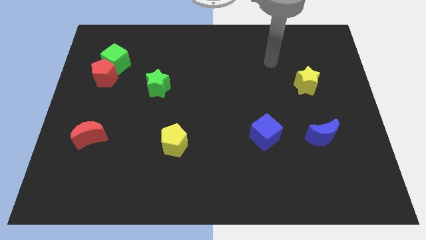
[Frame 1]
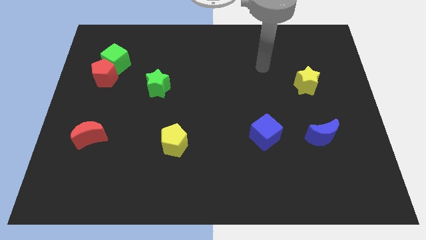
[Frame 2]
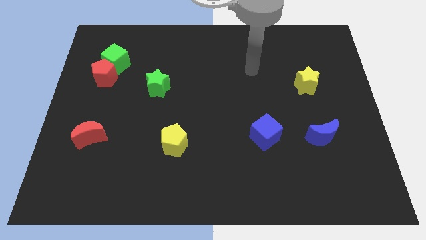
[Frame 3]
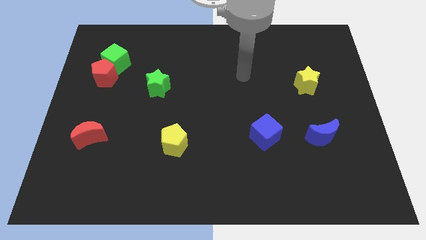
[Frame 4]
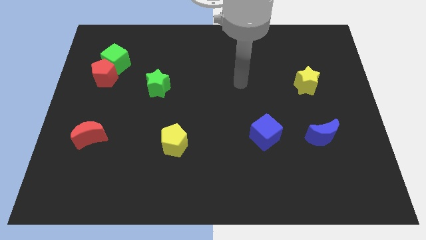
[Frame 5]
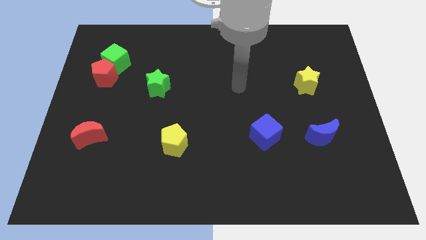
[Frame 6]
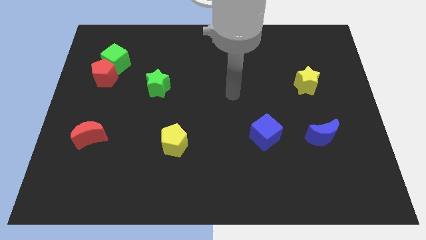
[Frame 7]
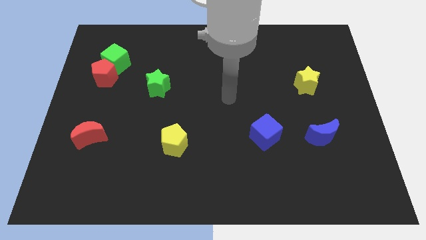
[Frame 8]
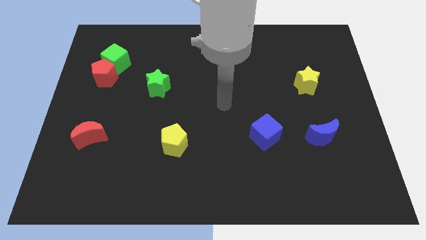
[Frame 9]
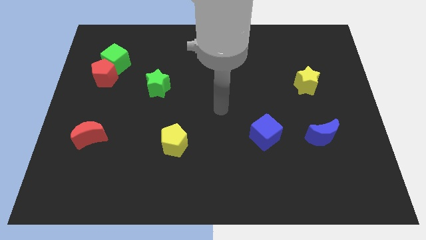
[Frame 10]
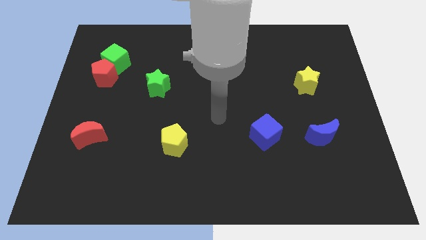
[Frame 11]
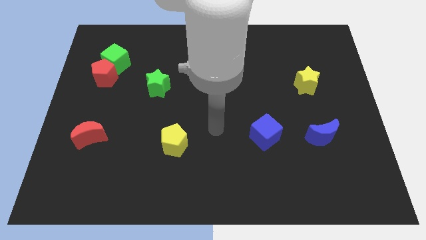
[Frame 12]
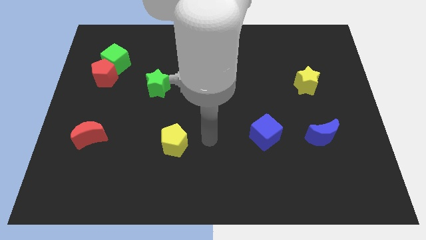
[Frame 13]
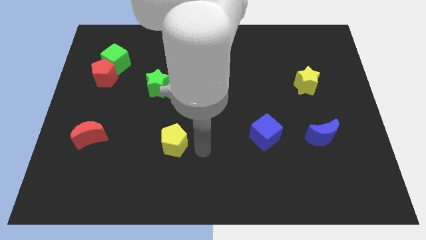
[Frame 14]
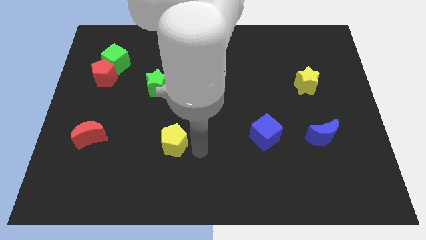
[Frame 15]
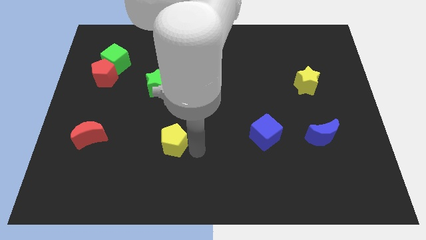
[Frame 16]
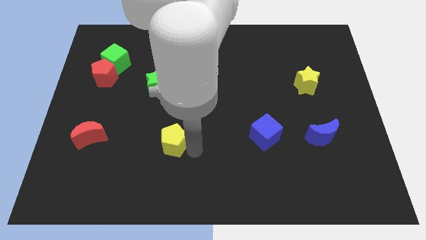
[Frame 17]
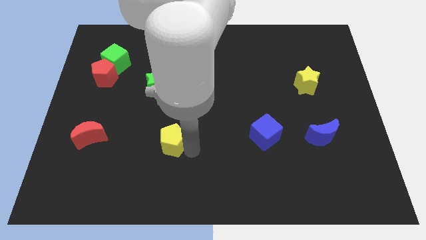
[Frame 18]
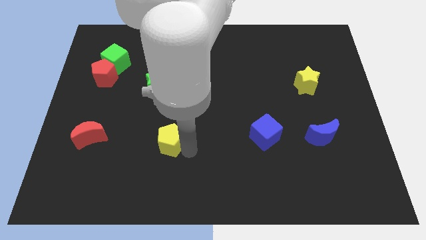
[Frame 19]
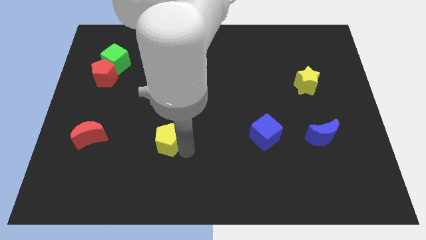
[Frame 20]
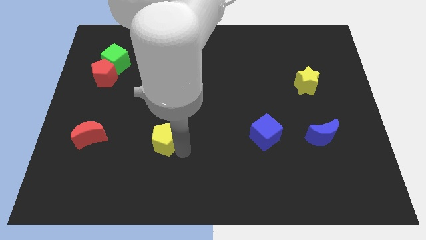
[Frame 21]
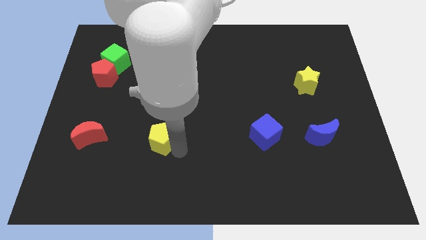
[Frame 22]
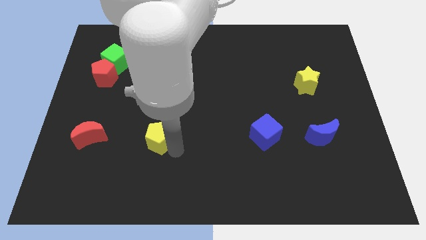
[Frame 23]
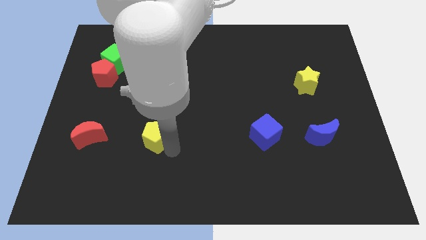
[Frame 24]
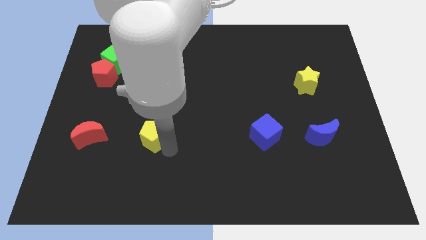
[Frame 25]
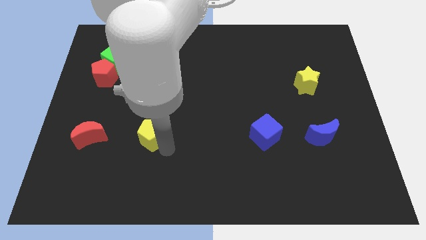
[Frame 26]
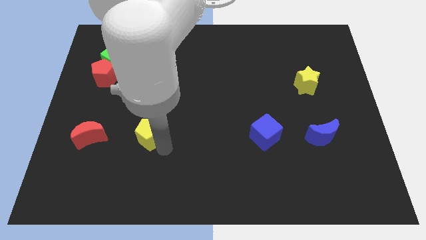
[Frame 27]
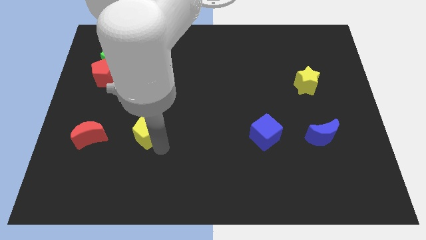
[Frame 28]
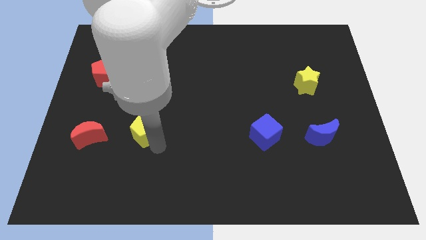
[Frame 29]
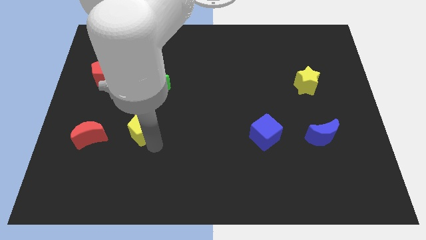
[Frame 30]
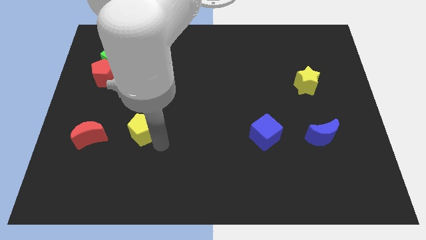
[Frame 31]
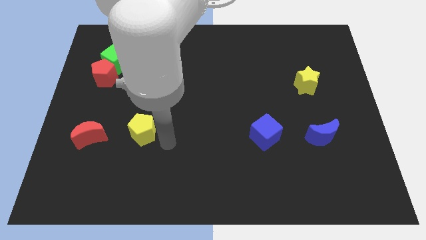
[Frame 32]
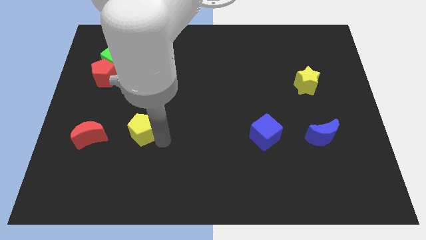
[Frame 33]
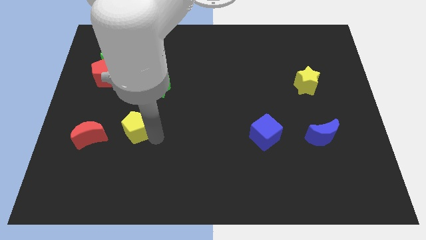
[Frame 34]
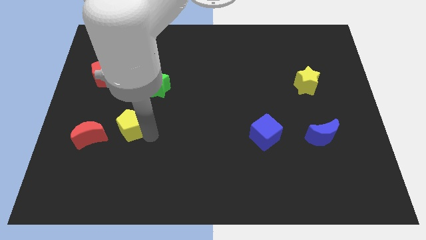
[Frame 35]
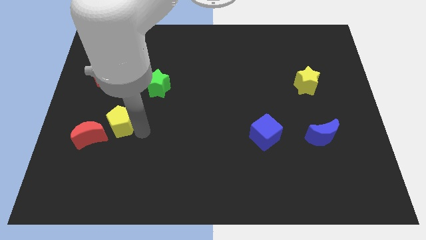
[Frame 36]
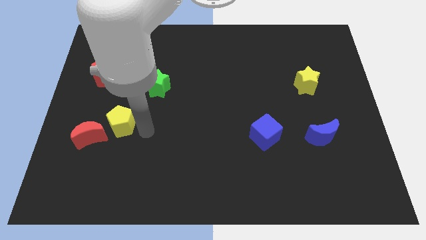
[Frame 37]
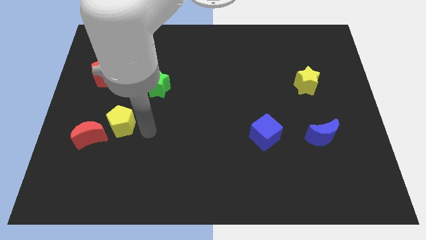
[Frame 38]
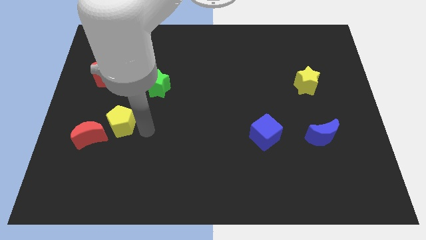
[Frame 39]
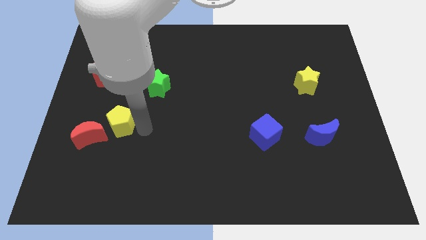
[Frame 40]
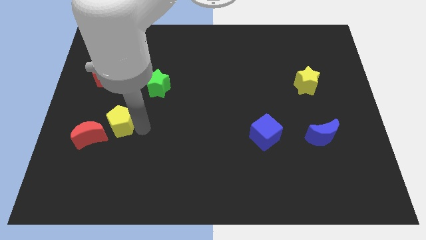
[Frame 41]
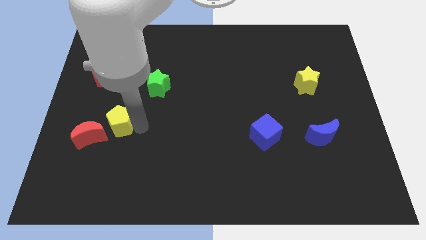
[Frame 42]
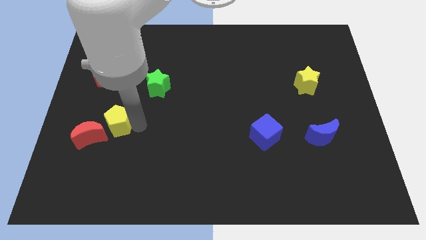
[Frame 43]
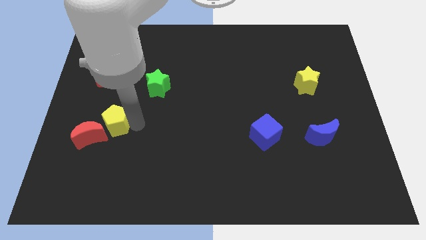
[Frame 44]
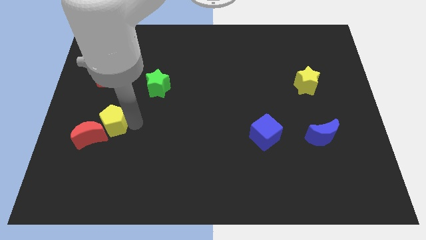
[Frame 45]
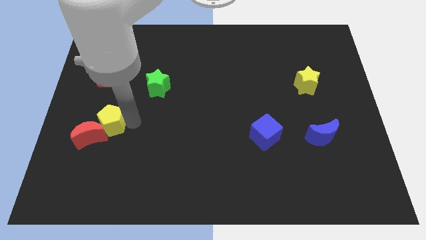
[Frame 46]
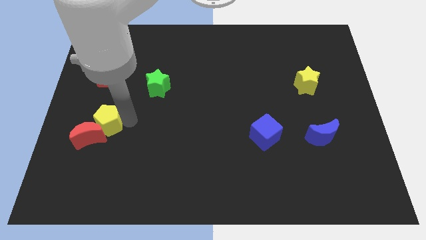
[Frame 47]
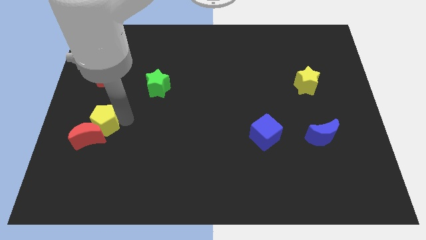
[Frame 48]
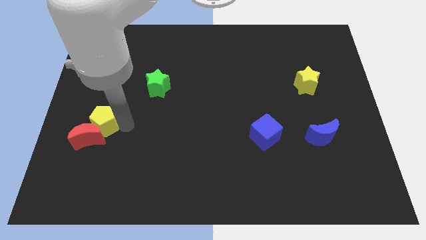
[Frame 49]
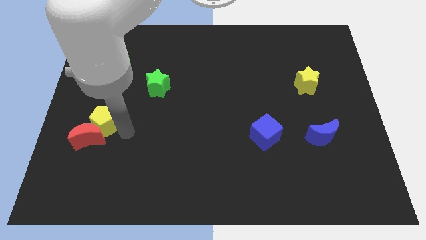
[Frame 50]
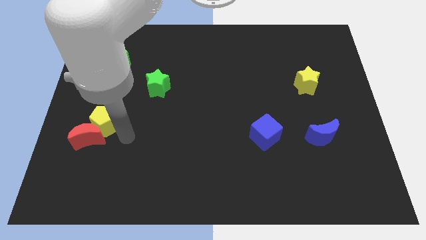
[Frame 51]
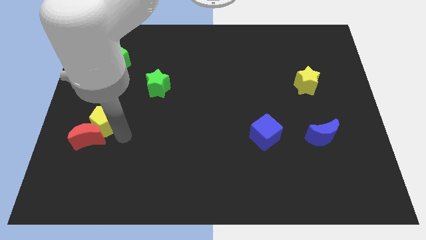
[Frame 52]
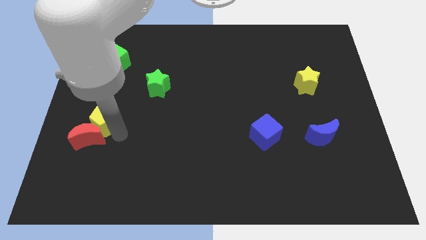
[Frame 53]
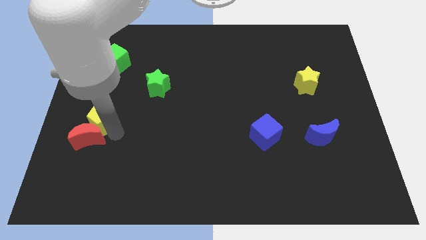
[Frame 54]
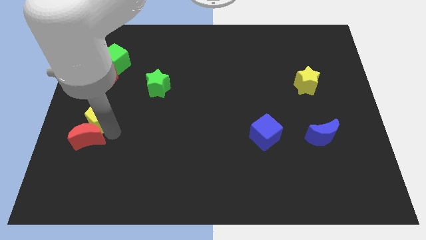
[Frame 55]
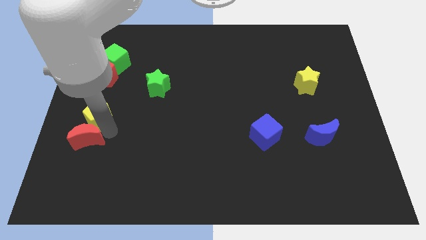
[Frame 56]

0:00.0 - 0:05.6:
put the yellow pentagon to the left side

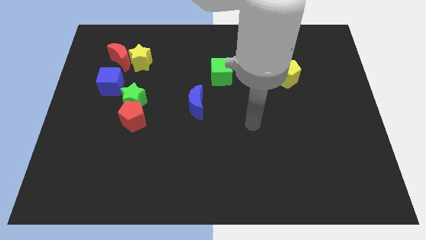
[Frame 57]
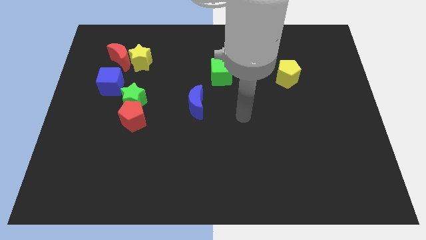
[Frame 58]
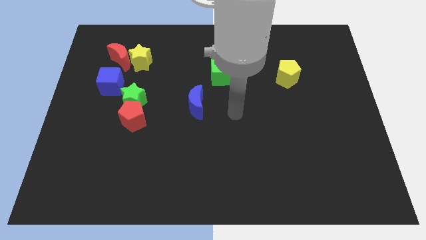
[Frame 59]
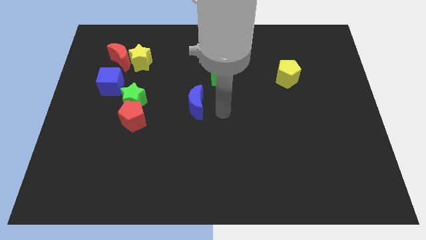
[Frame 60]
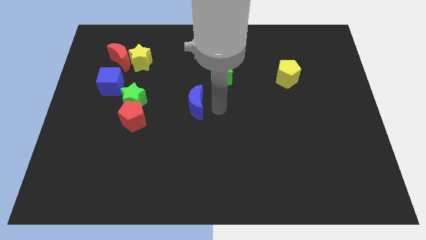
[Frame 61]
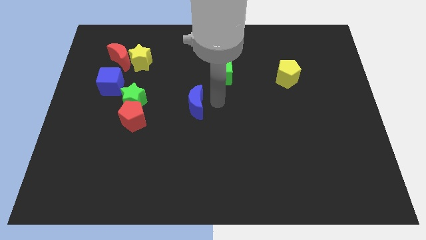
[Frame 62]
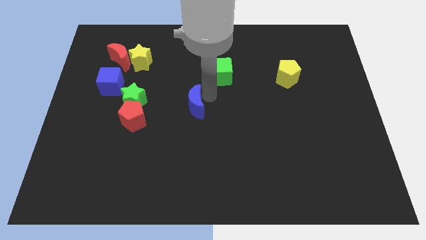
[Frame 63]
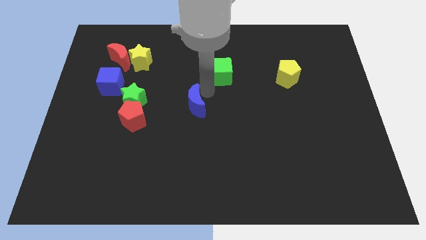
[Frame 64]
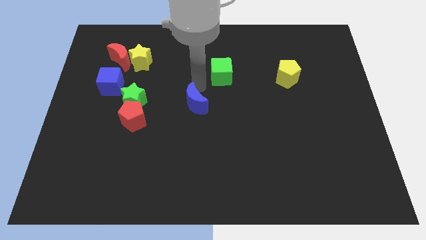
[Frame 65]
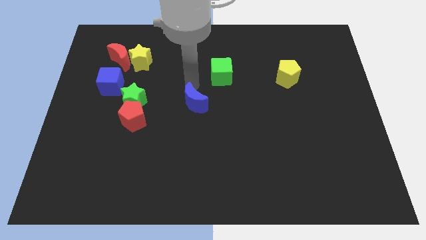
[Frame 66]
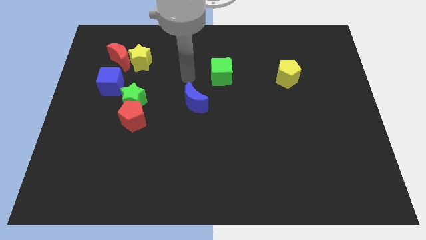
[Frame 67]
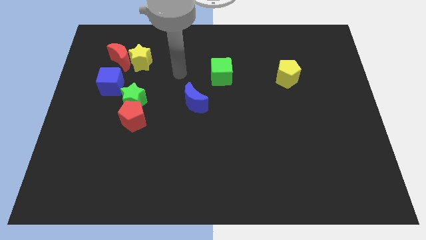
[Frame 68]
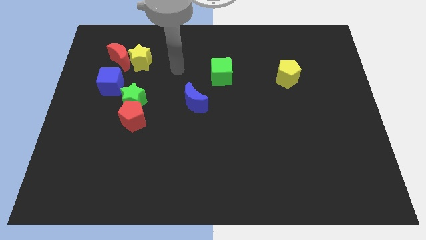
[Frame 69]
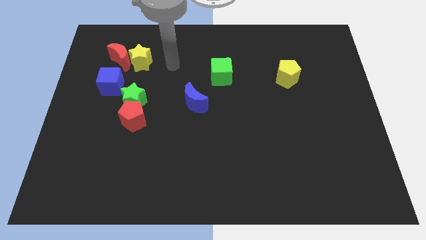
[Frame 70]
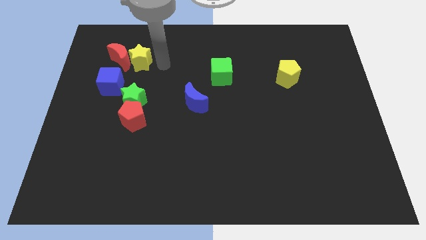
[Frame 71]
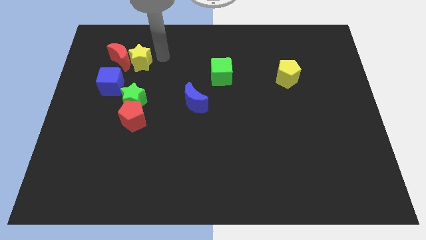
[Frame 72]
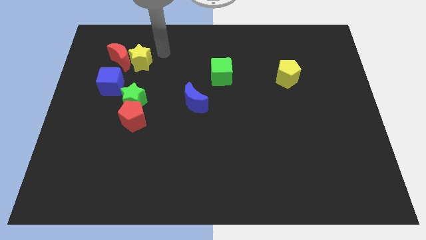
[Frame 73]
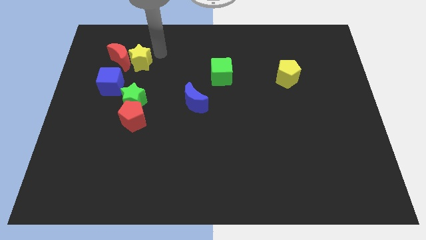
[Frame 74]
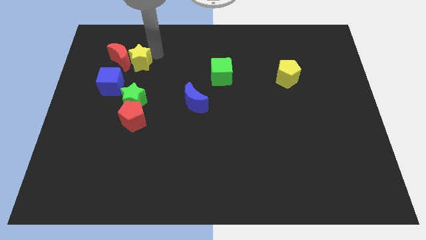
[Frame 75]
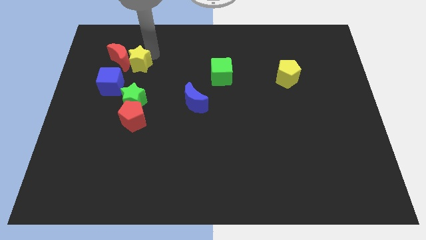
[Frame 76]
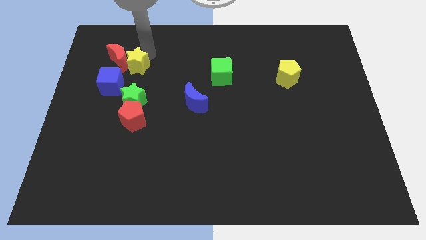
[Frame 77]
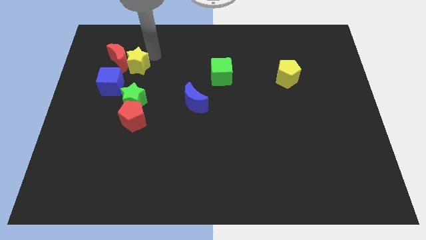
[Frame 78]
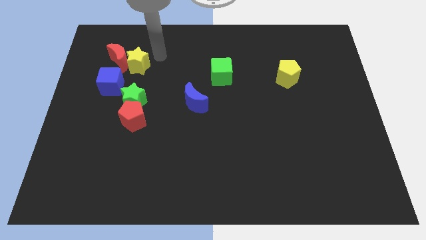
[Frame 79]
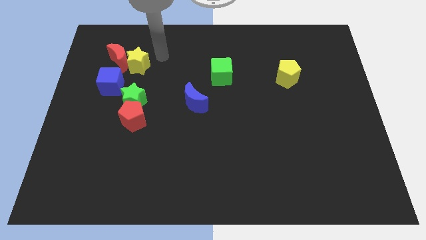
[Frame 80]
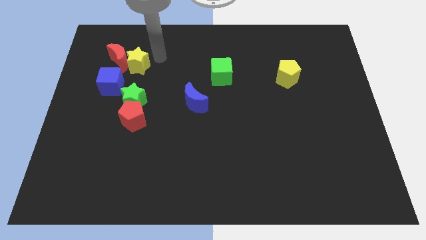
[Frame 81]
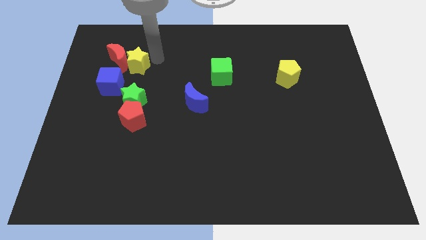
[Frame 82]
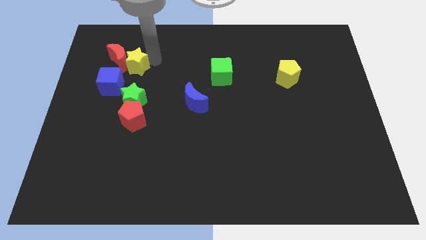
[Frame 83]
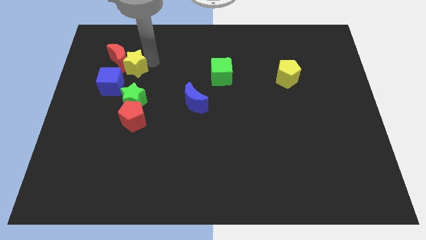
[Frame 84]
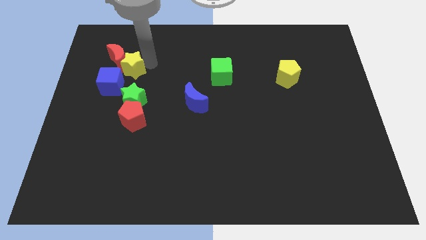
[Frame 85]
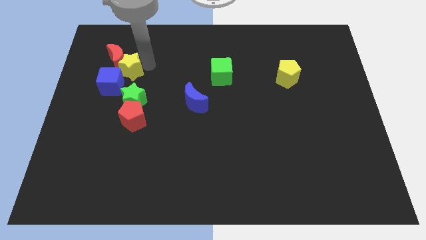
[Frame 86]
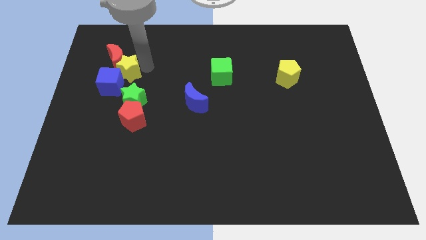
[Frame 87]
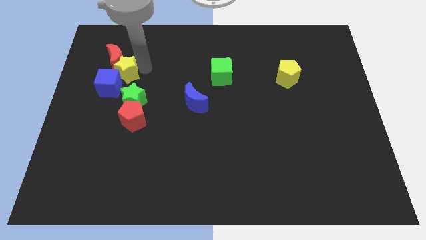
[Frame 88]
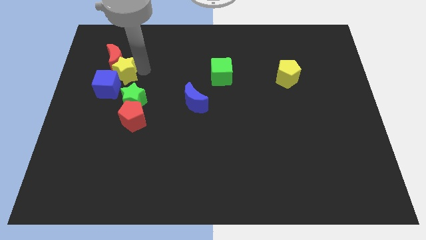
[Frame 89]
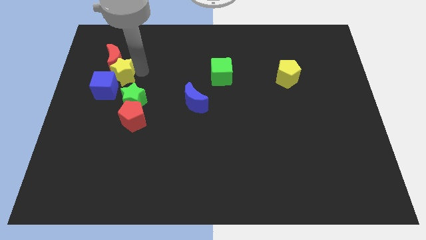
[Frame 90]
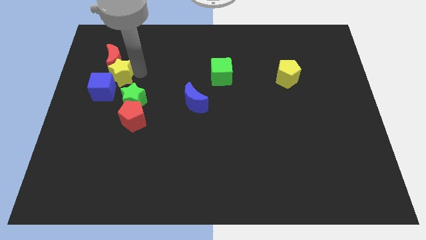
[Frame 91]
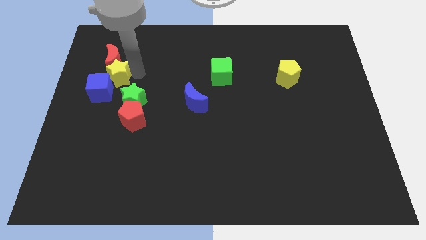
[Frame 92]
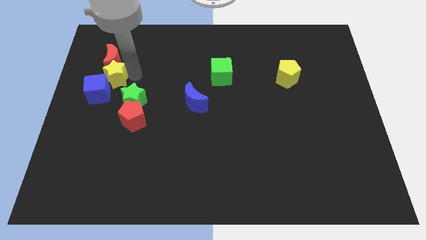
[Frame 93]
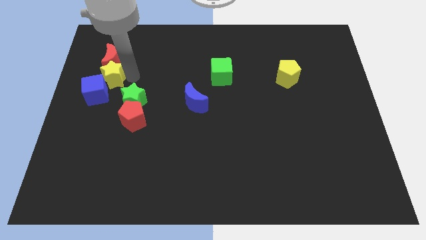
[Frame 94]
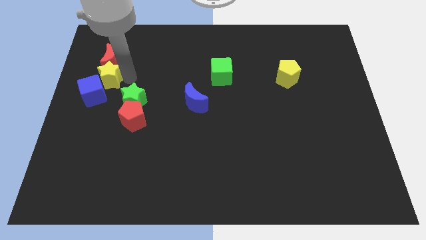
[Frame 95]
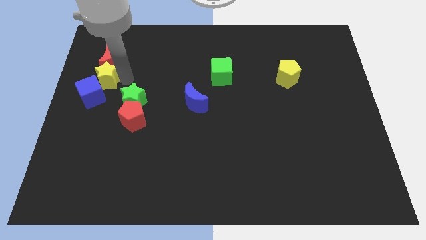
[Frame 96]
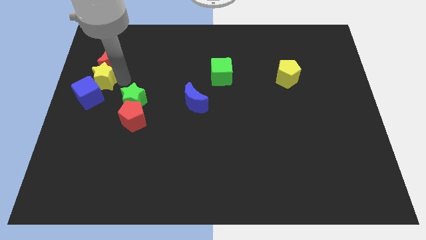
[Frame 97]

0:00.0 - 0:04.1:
slide the yellow star to the left side
